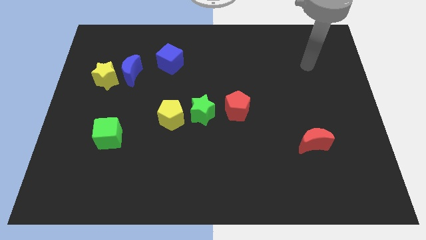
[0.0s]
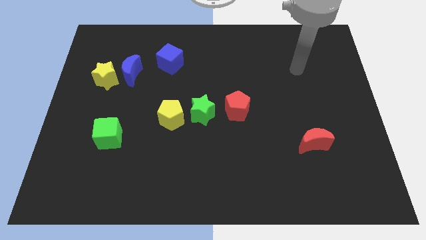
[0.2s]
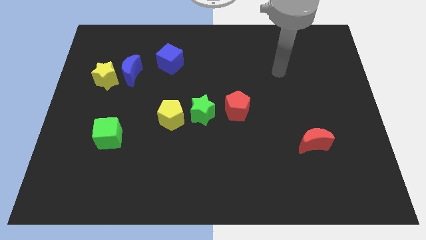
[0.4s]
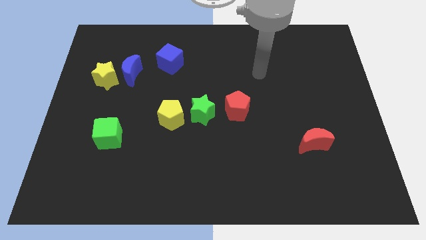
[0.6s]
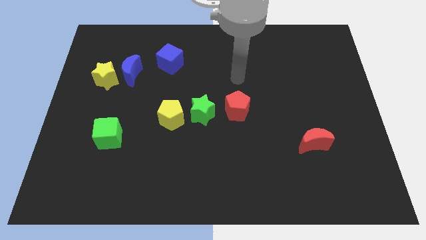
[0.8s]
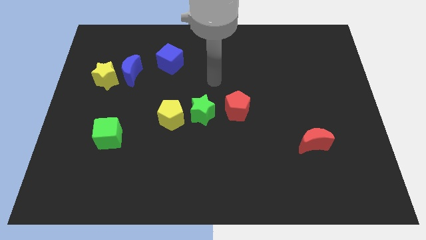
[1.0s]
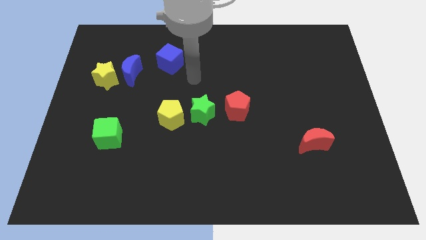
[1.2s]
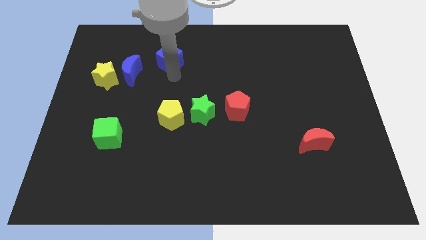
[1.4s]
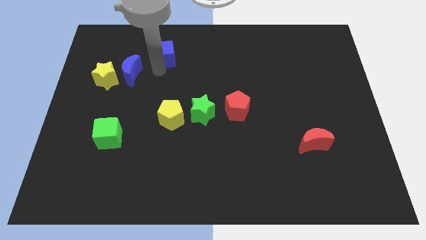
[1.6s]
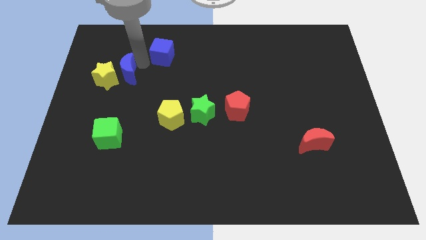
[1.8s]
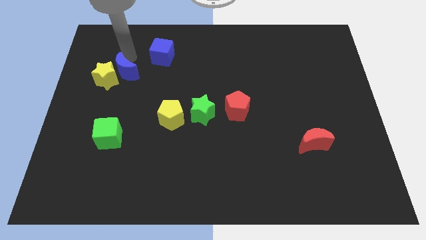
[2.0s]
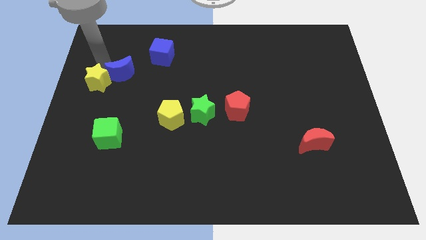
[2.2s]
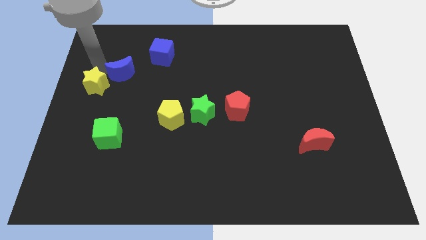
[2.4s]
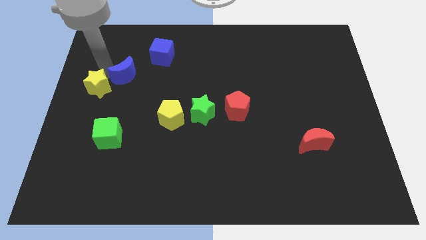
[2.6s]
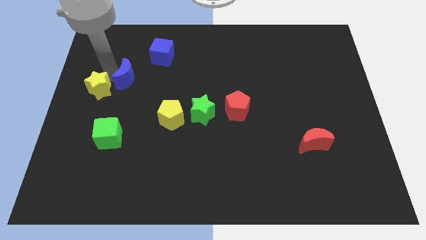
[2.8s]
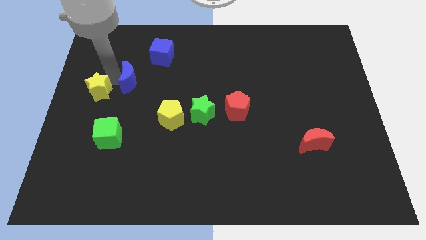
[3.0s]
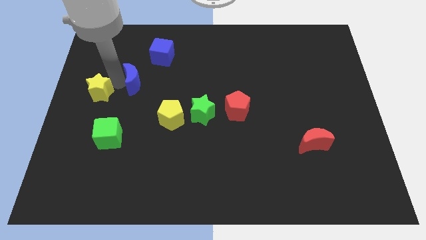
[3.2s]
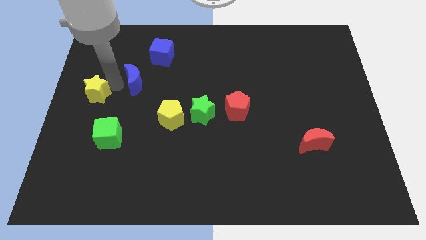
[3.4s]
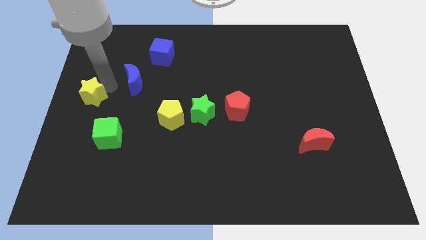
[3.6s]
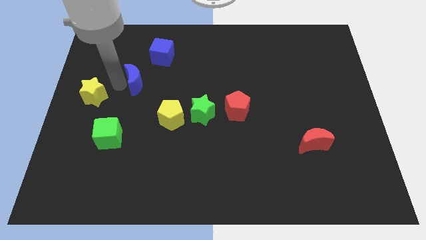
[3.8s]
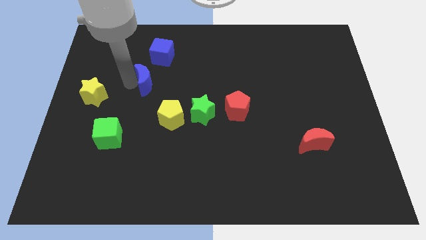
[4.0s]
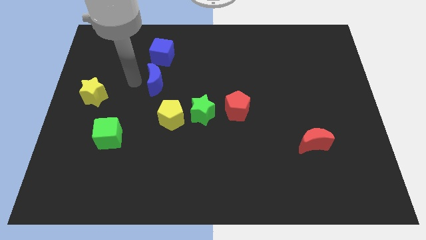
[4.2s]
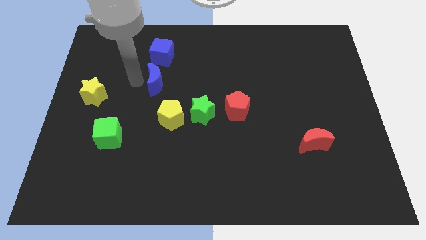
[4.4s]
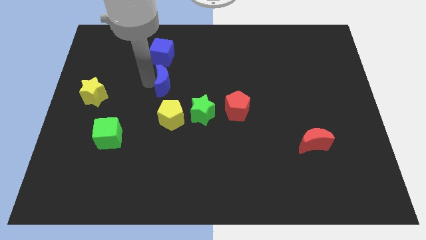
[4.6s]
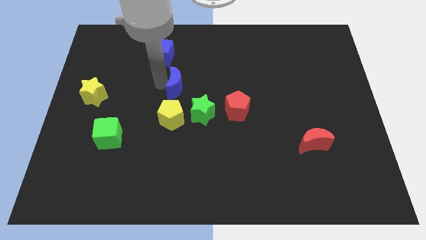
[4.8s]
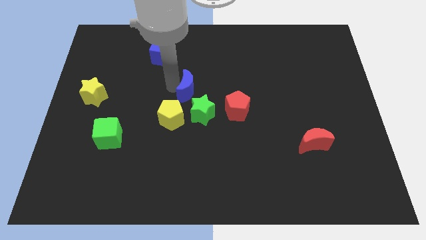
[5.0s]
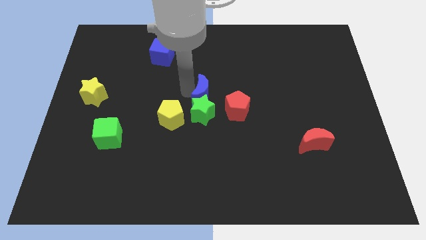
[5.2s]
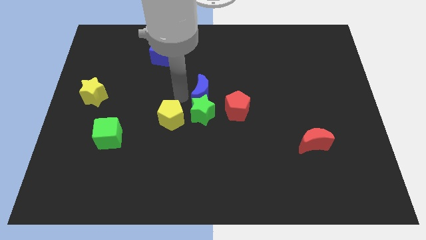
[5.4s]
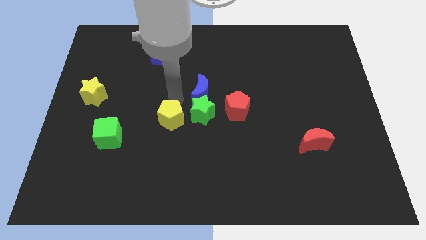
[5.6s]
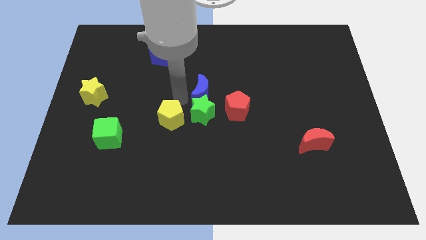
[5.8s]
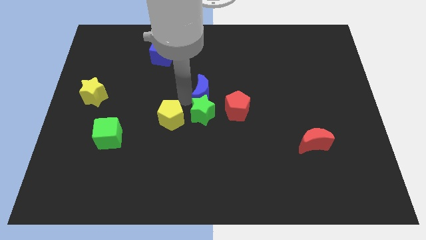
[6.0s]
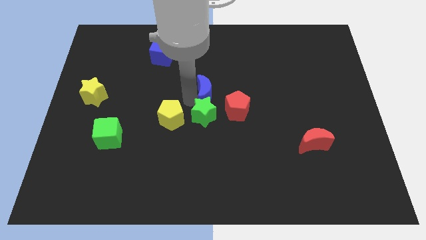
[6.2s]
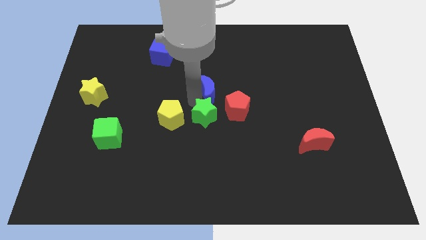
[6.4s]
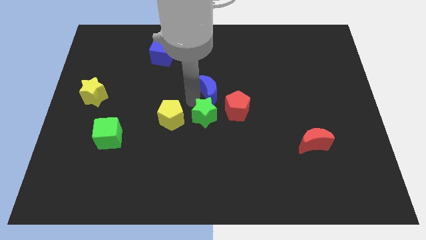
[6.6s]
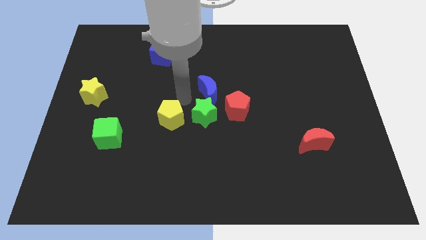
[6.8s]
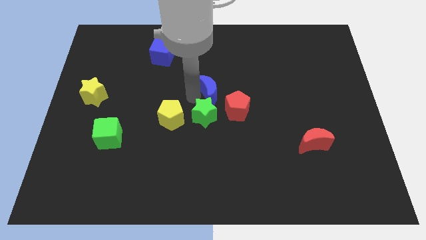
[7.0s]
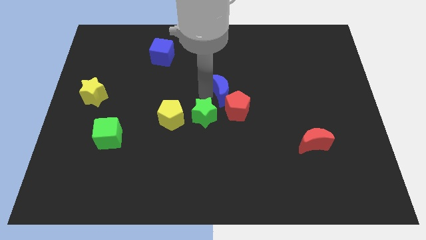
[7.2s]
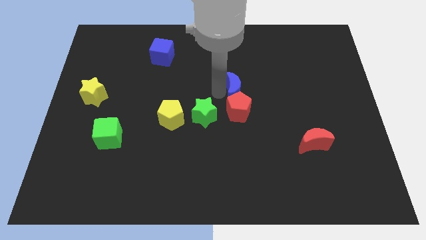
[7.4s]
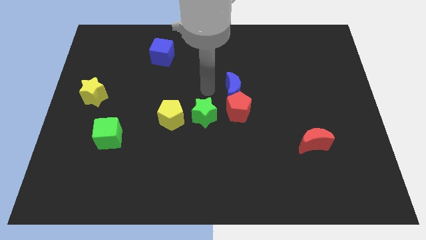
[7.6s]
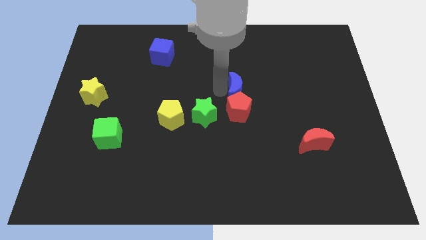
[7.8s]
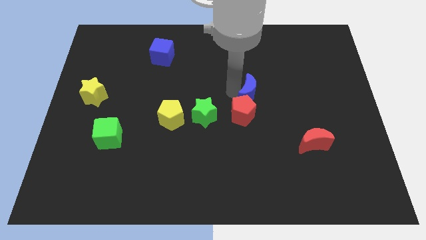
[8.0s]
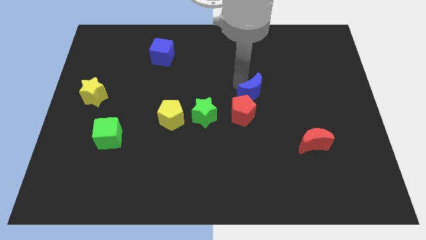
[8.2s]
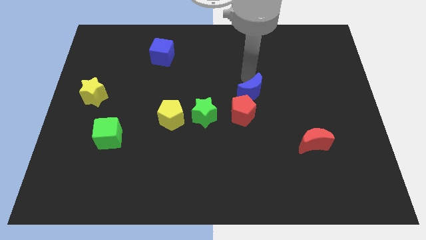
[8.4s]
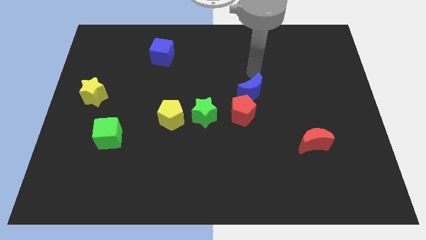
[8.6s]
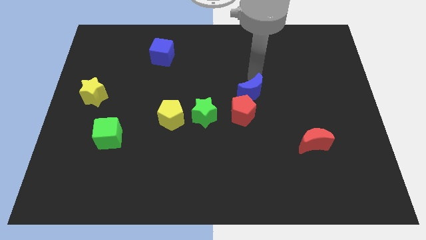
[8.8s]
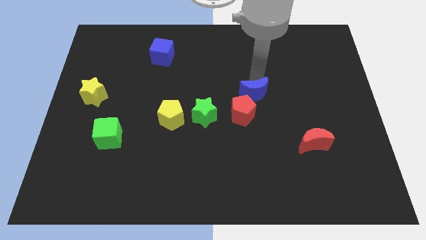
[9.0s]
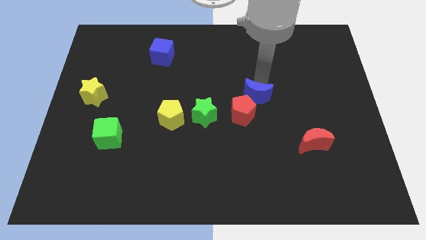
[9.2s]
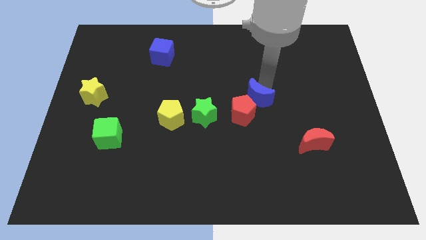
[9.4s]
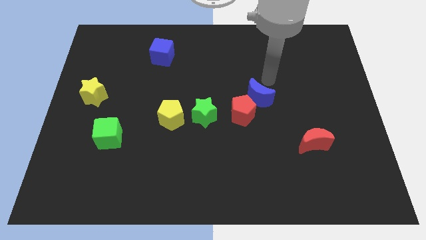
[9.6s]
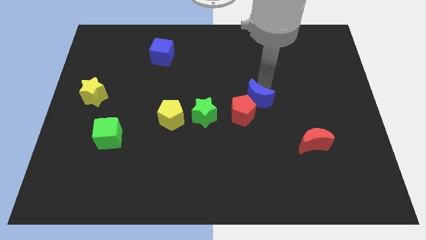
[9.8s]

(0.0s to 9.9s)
slide the blue moon just right of the green star

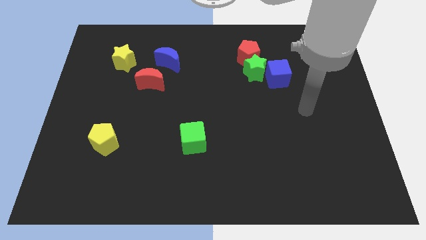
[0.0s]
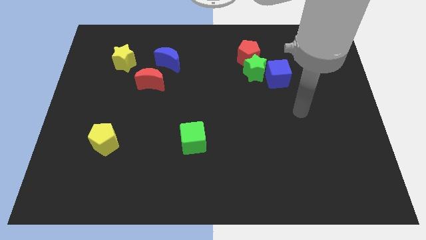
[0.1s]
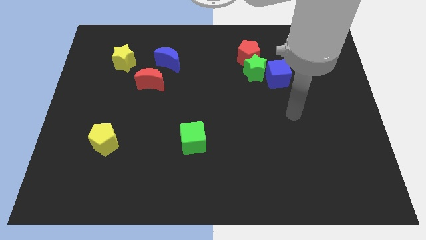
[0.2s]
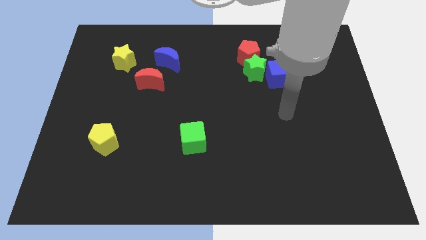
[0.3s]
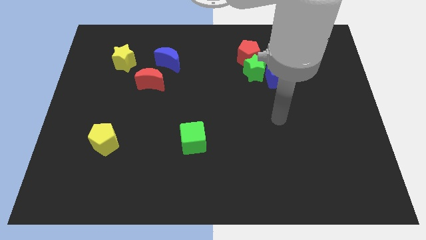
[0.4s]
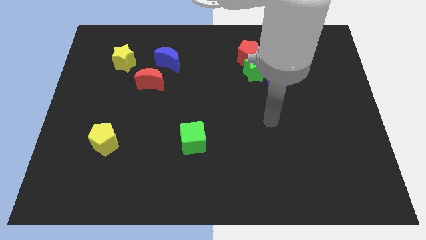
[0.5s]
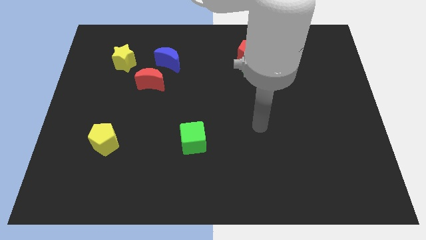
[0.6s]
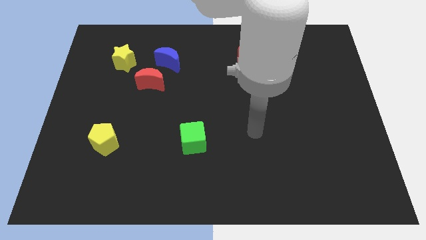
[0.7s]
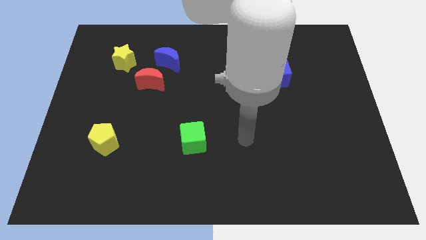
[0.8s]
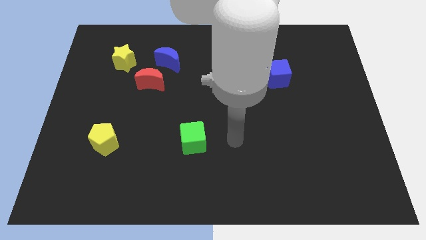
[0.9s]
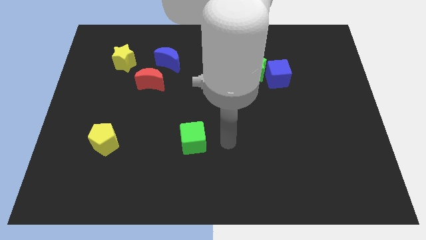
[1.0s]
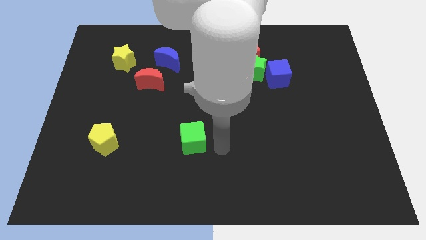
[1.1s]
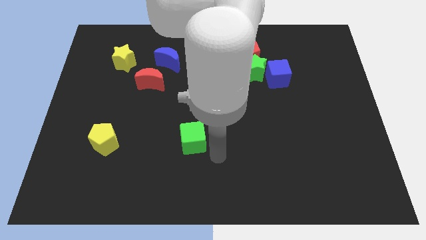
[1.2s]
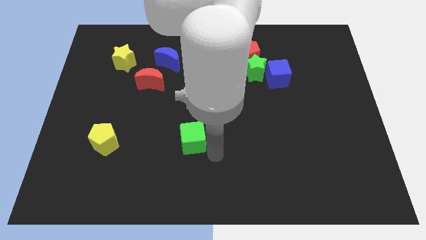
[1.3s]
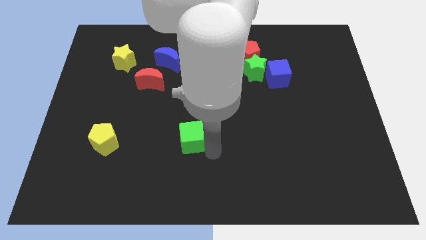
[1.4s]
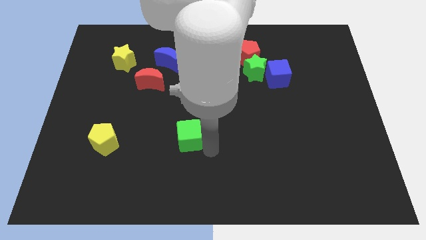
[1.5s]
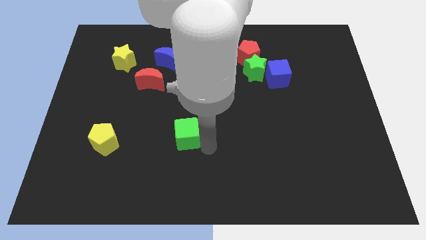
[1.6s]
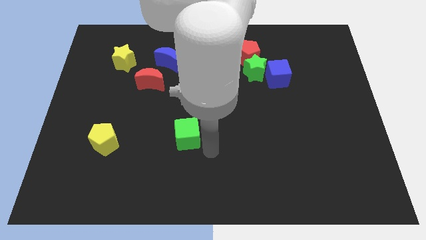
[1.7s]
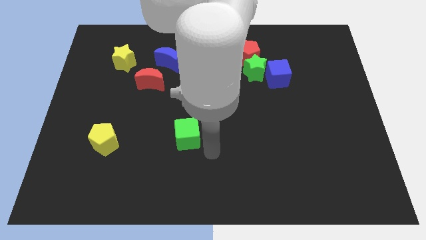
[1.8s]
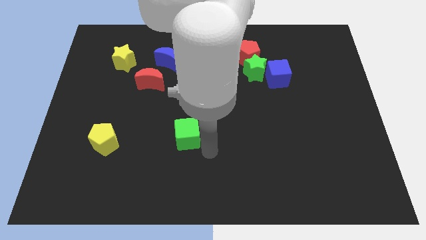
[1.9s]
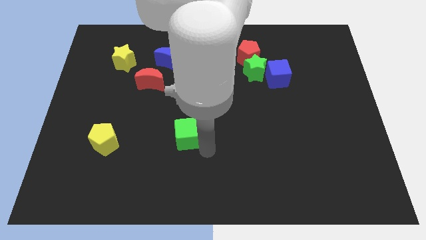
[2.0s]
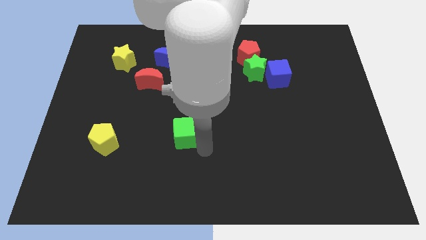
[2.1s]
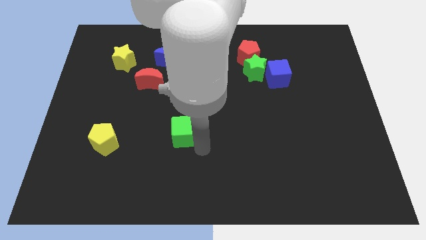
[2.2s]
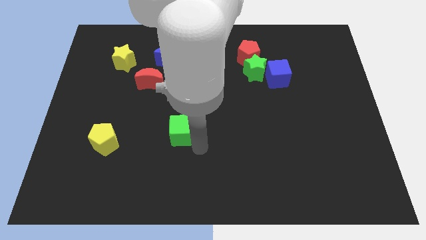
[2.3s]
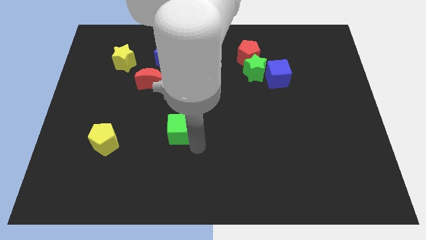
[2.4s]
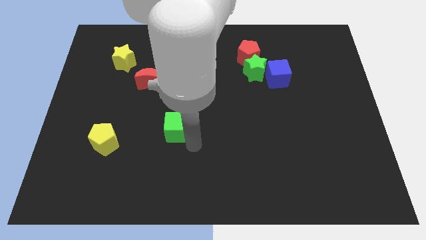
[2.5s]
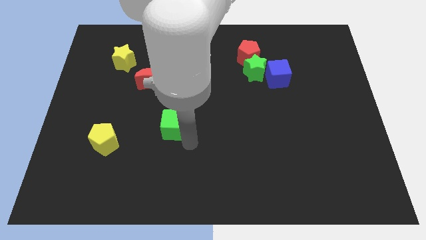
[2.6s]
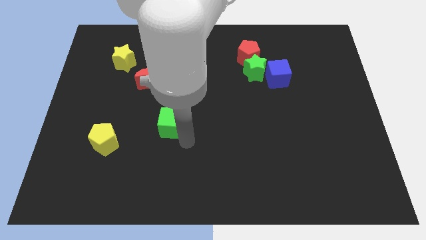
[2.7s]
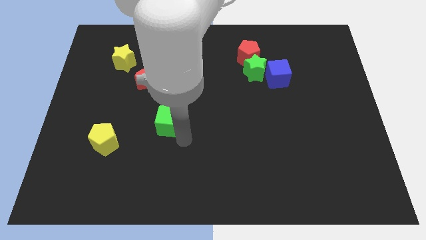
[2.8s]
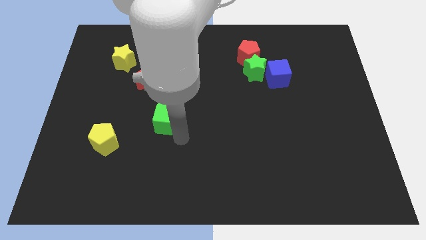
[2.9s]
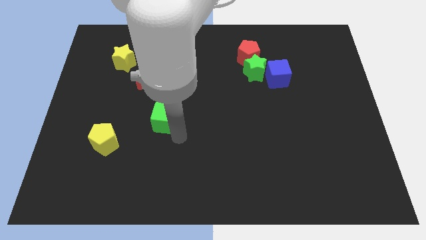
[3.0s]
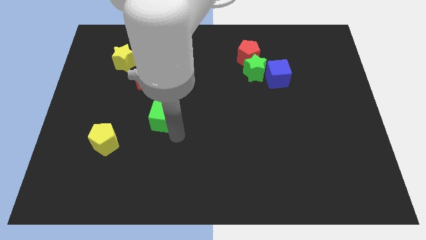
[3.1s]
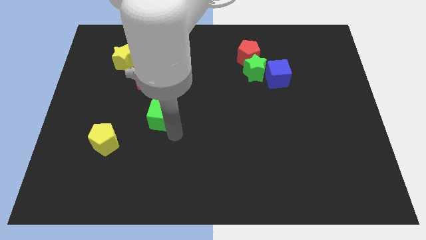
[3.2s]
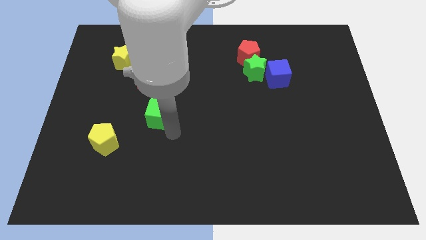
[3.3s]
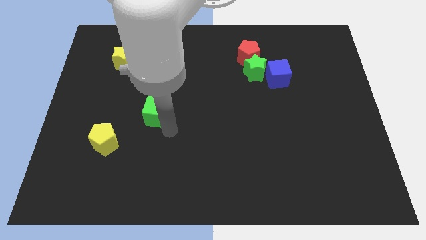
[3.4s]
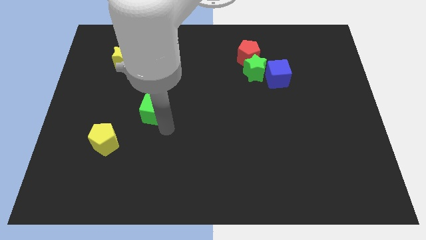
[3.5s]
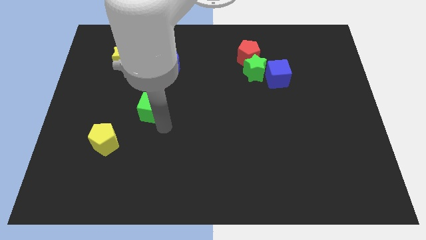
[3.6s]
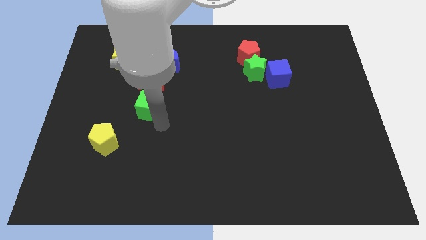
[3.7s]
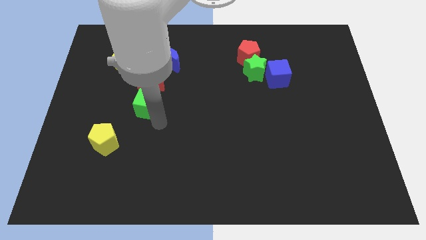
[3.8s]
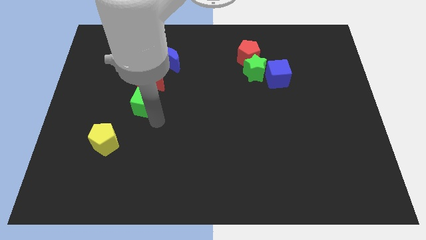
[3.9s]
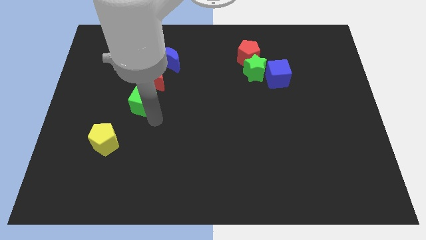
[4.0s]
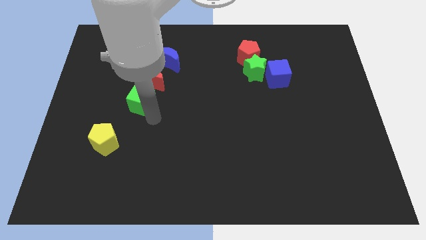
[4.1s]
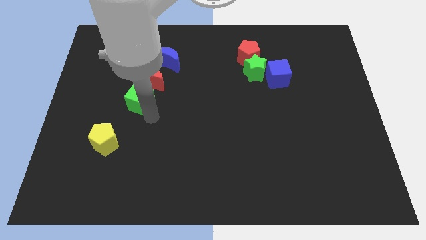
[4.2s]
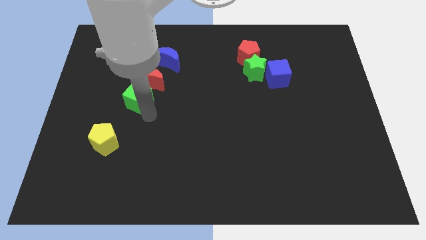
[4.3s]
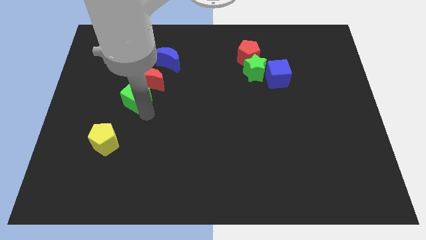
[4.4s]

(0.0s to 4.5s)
put the green cube below the yellow star
